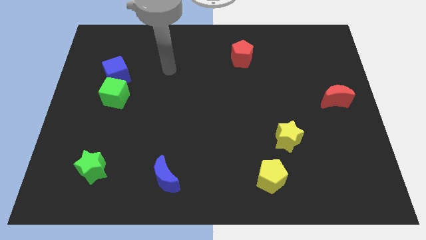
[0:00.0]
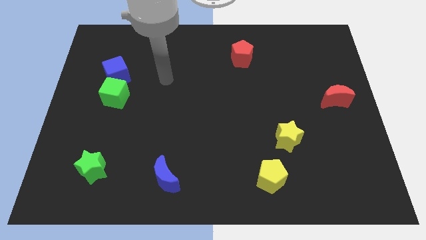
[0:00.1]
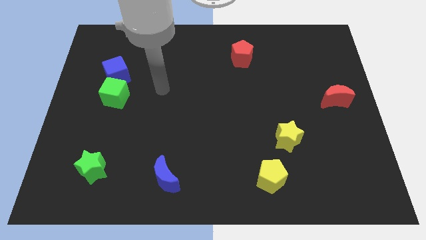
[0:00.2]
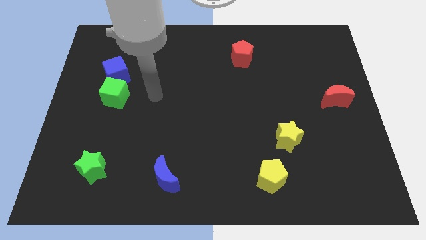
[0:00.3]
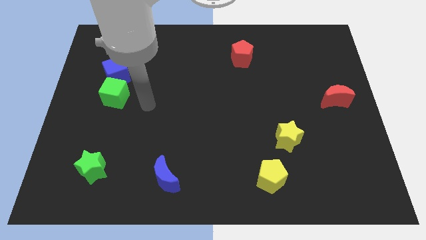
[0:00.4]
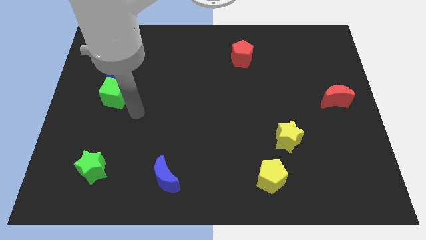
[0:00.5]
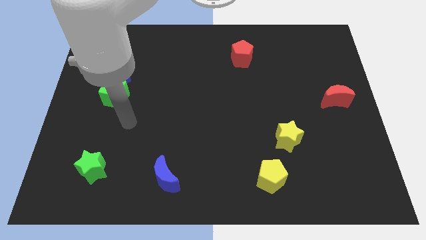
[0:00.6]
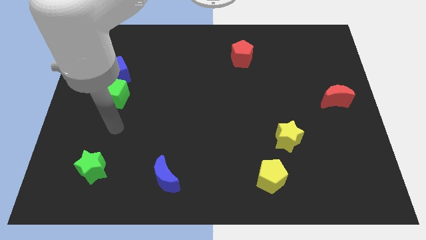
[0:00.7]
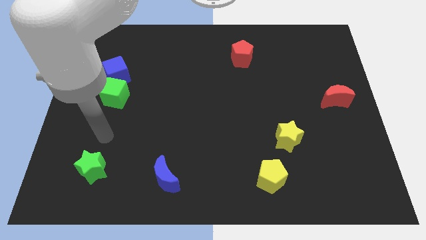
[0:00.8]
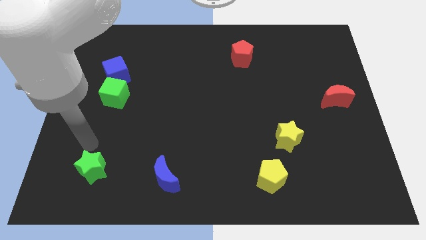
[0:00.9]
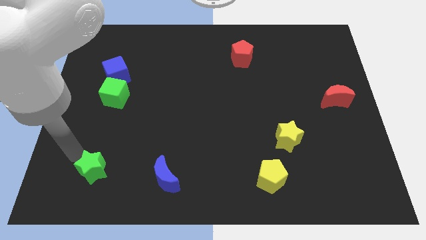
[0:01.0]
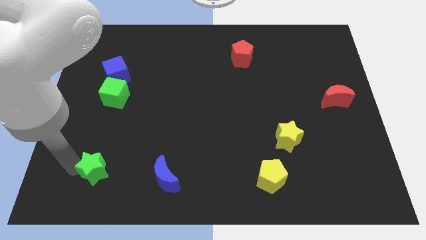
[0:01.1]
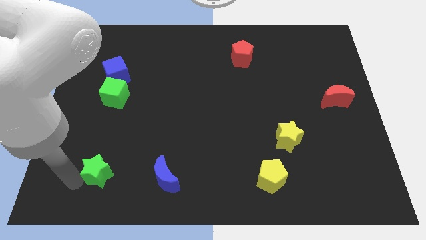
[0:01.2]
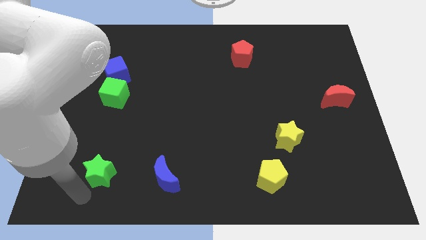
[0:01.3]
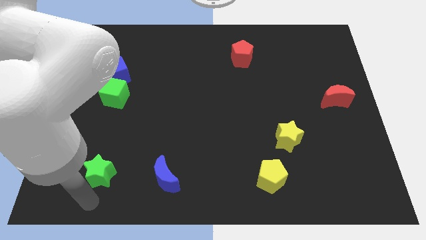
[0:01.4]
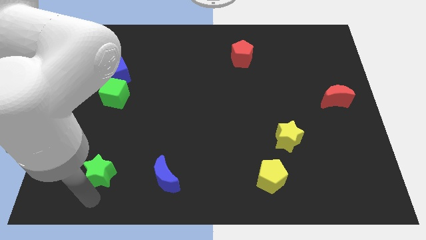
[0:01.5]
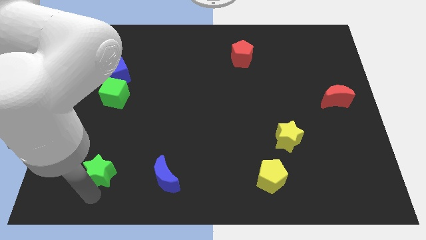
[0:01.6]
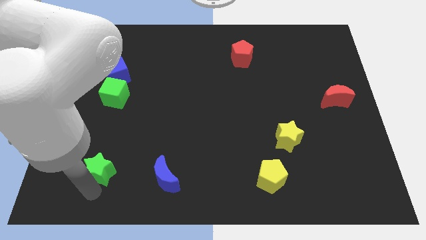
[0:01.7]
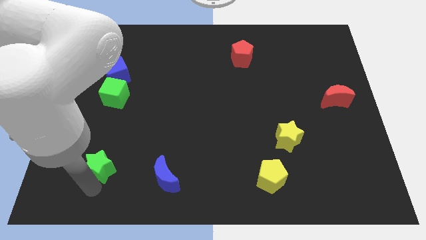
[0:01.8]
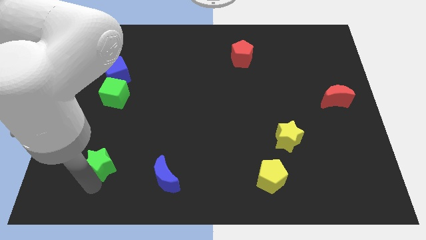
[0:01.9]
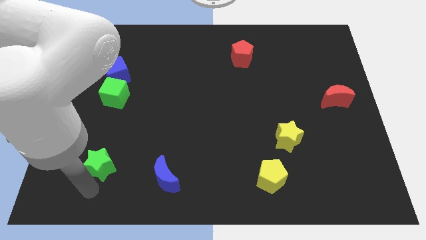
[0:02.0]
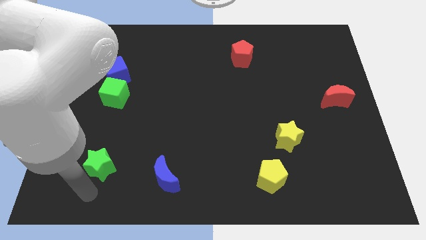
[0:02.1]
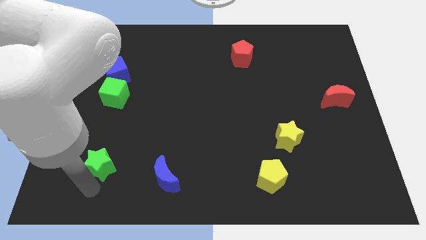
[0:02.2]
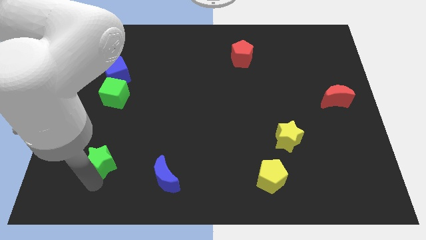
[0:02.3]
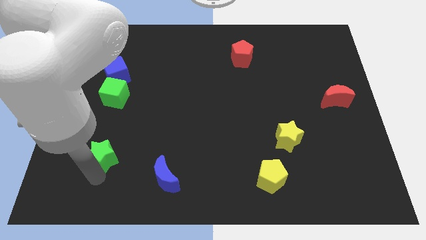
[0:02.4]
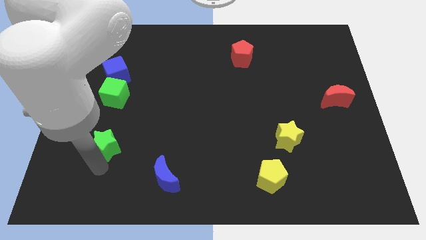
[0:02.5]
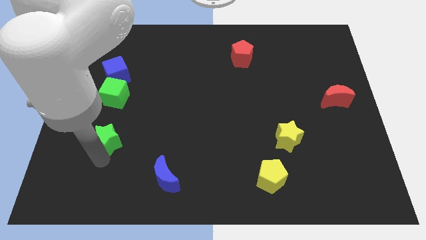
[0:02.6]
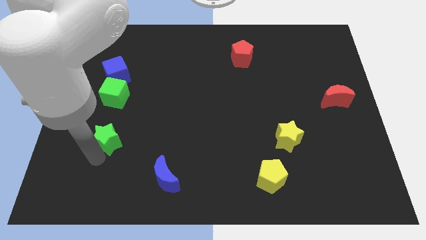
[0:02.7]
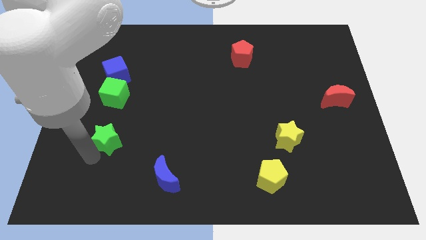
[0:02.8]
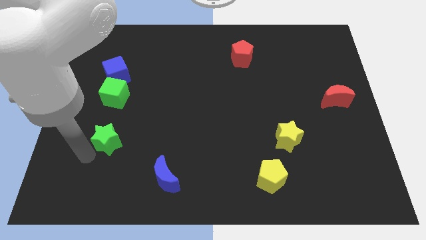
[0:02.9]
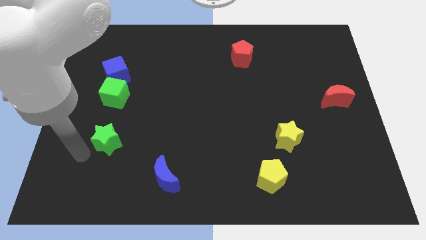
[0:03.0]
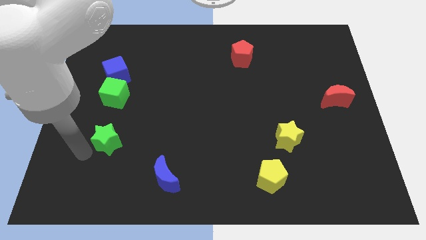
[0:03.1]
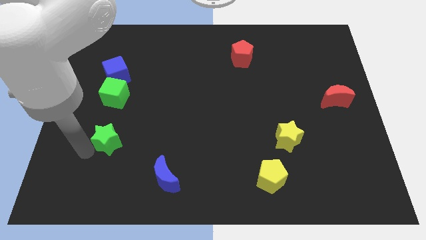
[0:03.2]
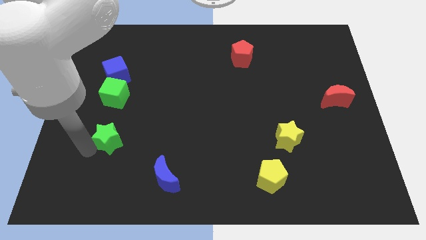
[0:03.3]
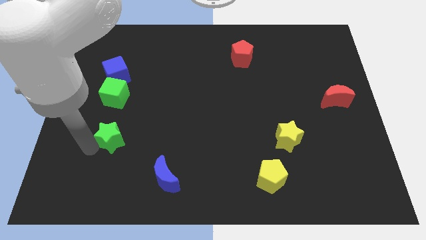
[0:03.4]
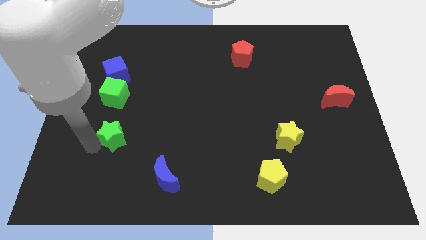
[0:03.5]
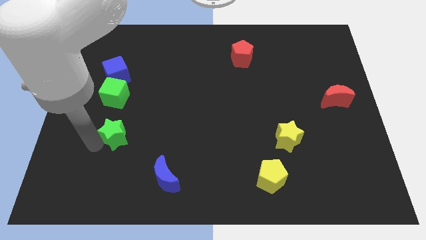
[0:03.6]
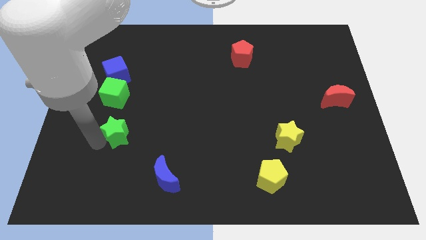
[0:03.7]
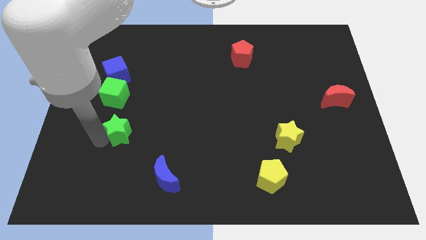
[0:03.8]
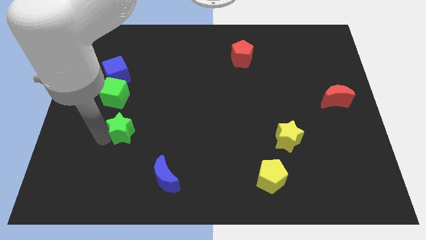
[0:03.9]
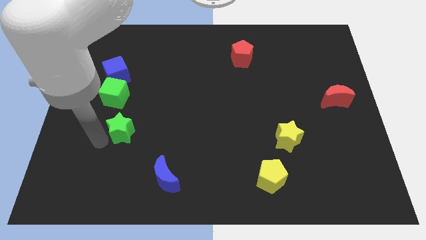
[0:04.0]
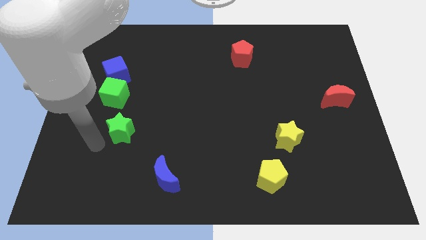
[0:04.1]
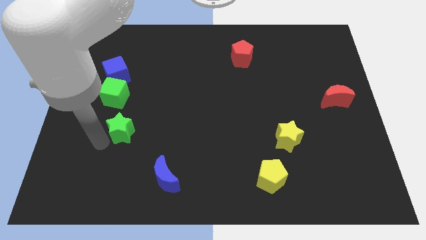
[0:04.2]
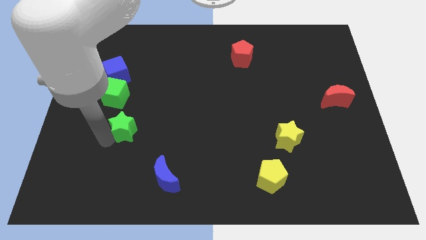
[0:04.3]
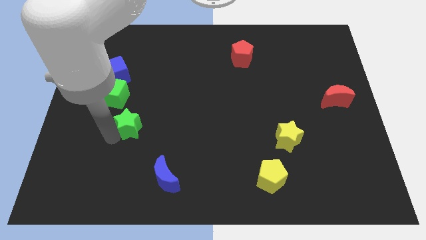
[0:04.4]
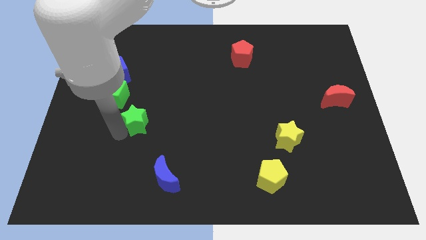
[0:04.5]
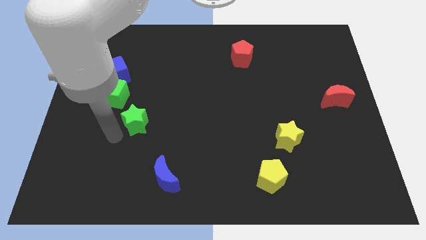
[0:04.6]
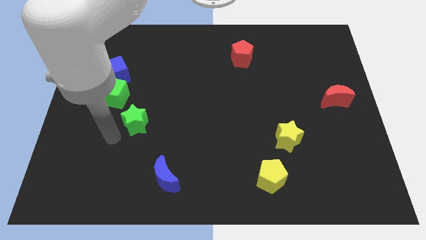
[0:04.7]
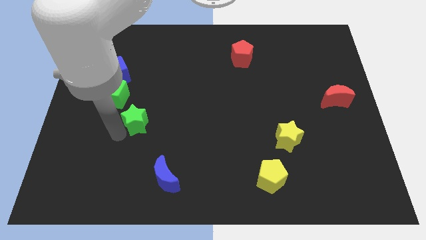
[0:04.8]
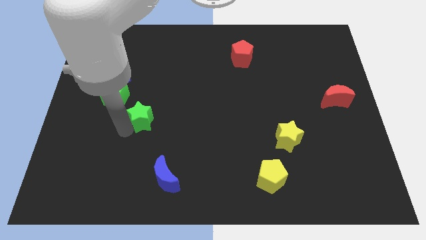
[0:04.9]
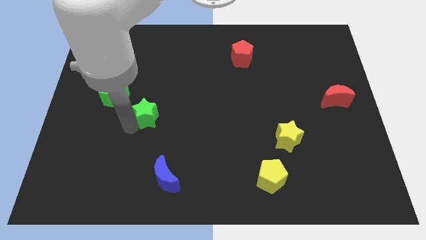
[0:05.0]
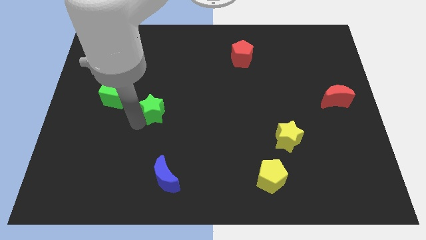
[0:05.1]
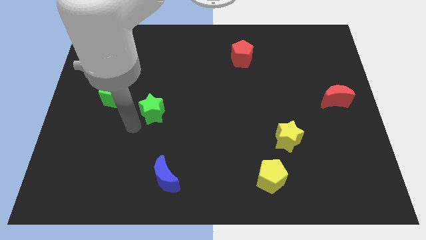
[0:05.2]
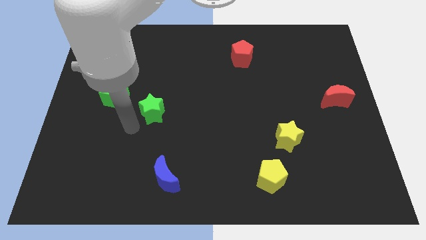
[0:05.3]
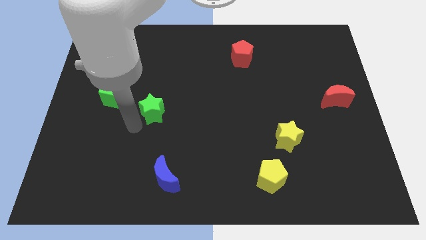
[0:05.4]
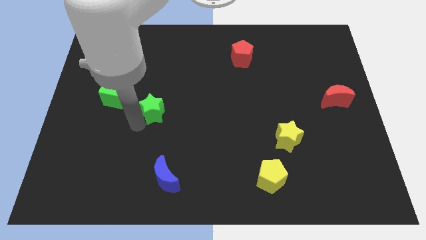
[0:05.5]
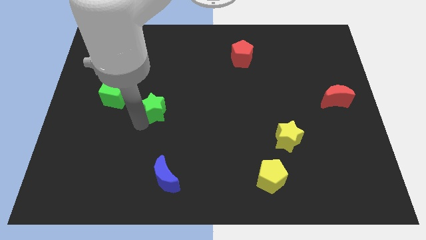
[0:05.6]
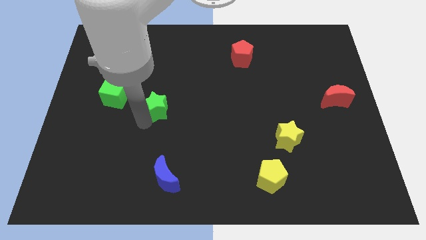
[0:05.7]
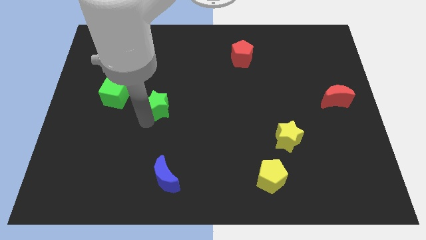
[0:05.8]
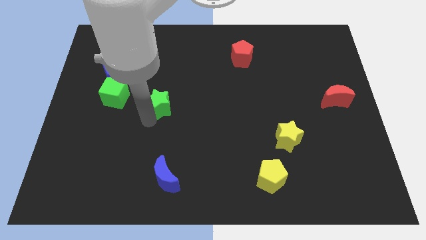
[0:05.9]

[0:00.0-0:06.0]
move the green star diagonally upwards and right

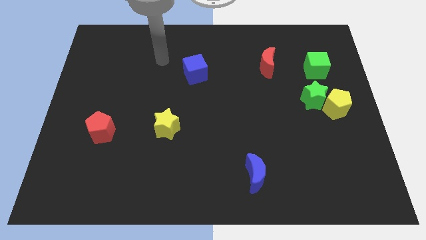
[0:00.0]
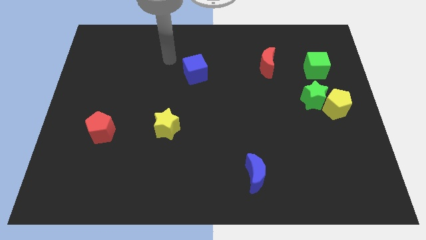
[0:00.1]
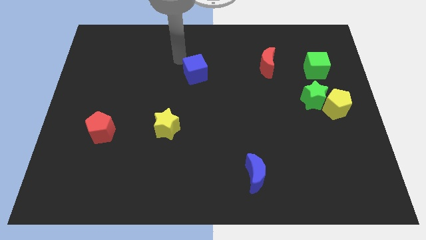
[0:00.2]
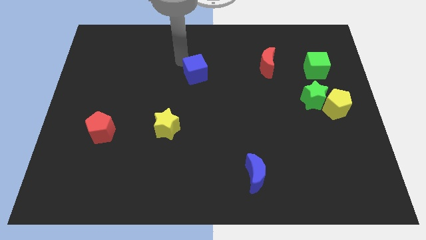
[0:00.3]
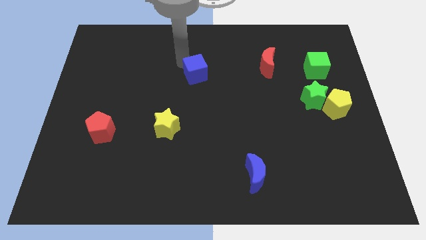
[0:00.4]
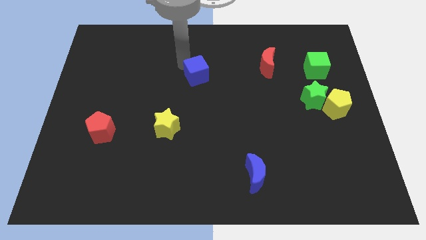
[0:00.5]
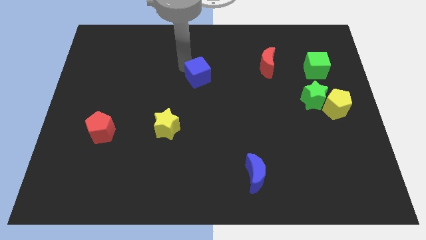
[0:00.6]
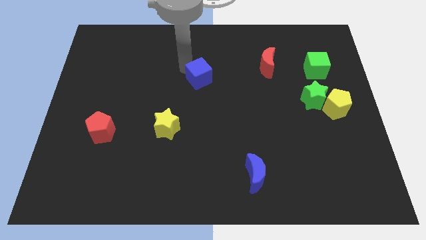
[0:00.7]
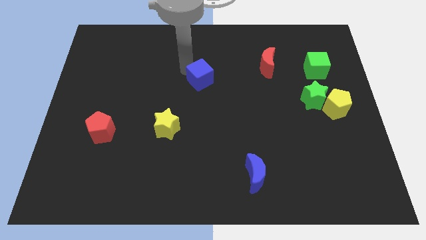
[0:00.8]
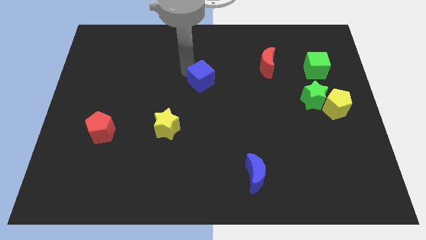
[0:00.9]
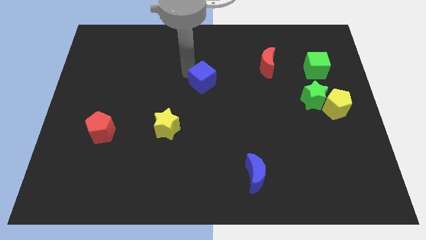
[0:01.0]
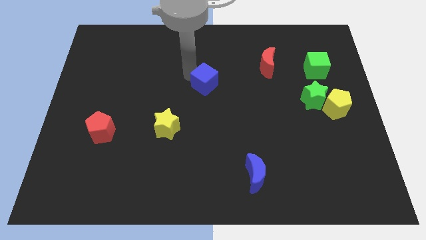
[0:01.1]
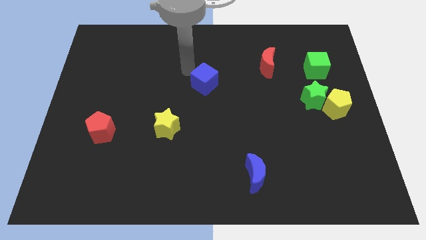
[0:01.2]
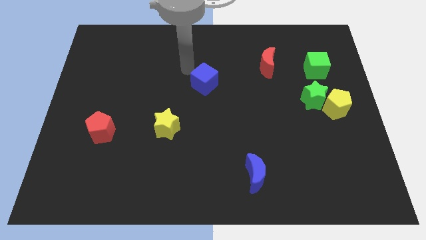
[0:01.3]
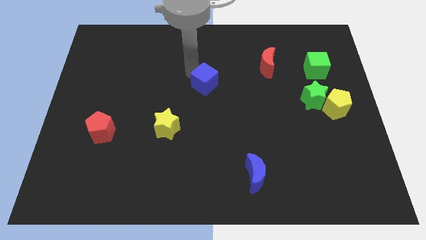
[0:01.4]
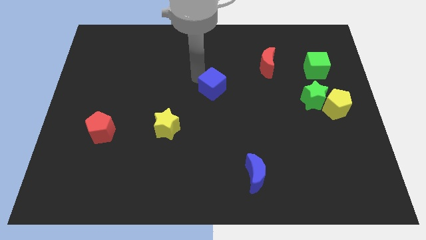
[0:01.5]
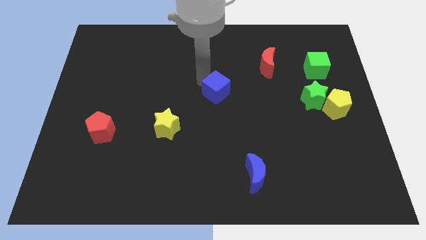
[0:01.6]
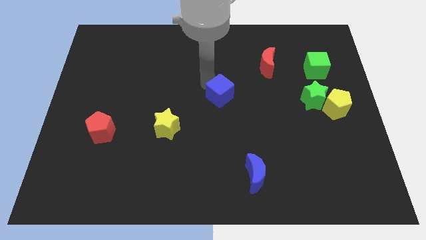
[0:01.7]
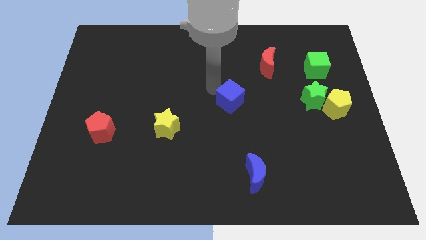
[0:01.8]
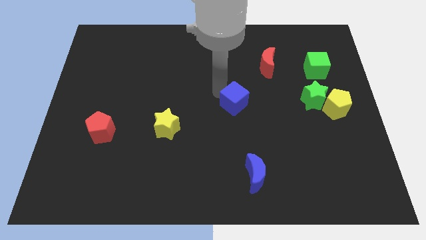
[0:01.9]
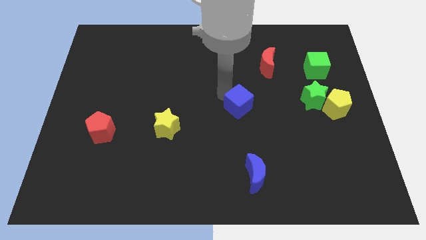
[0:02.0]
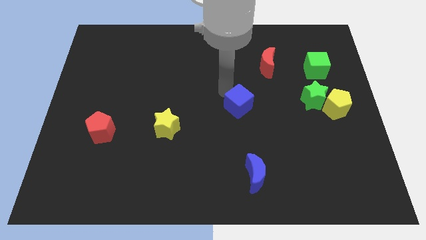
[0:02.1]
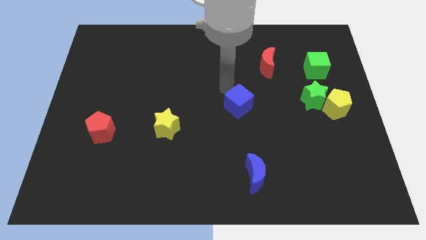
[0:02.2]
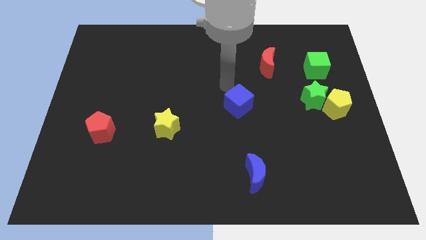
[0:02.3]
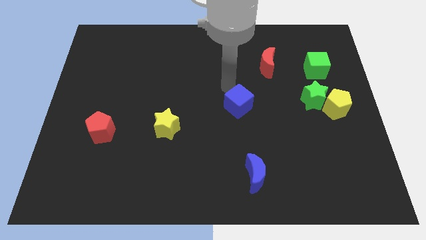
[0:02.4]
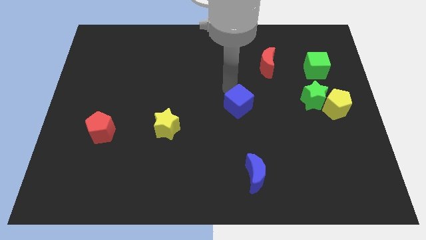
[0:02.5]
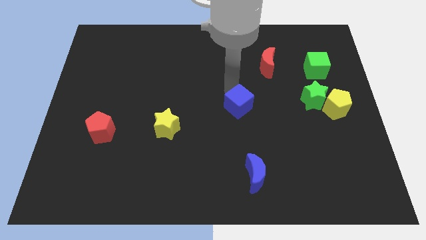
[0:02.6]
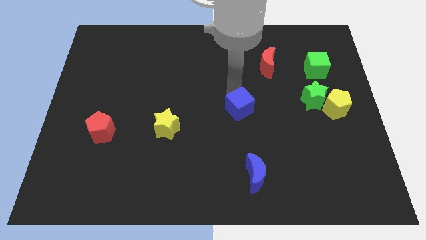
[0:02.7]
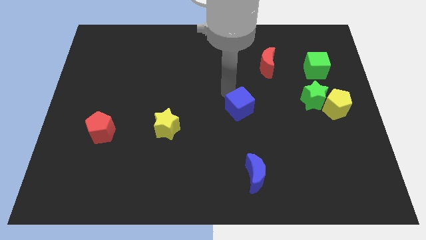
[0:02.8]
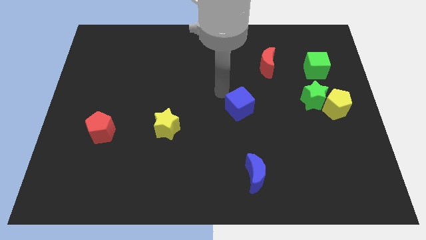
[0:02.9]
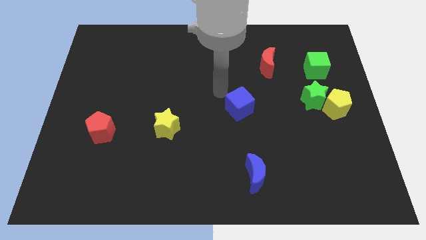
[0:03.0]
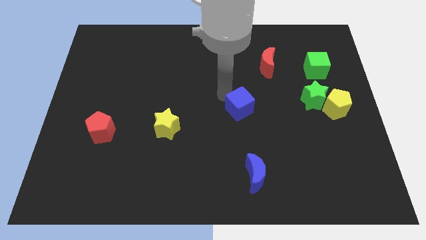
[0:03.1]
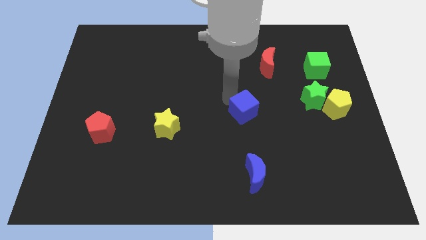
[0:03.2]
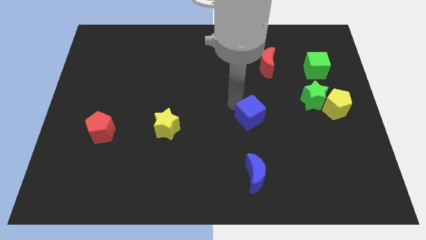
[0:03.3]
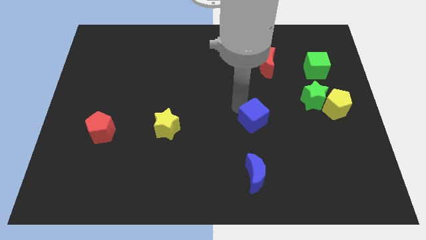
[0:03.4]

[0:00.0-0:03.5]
push the blue cube diagonally down and to the right
